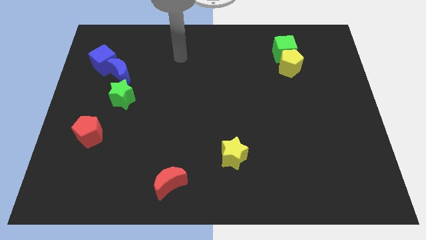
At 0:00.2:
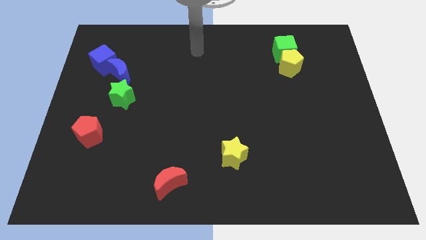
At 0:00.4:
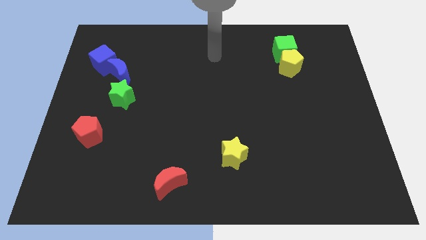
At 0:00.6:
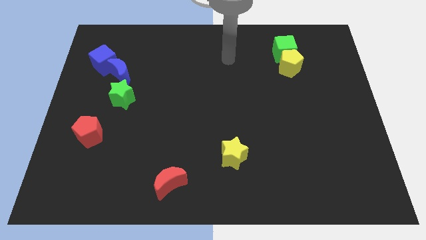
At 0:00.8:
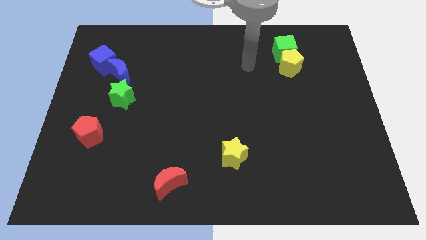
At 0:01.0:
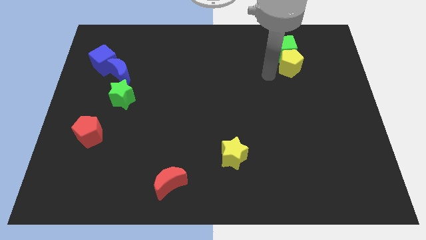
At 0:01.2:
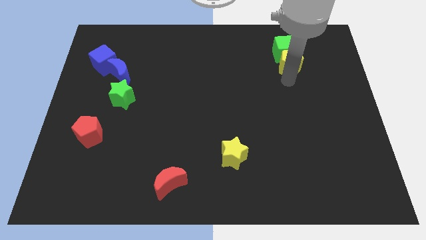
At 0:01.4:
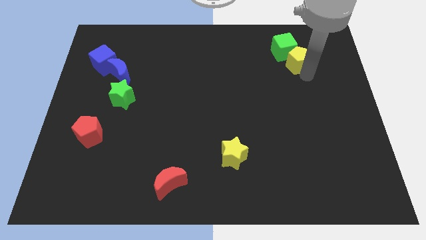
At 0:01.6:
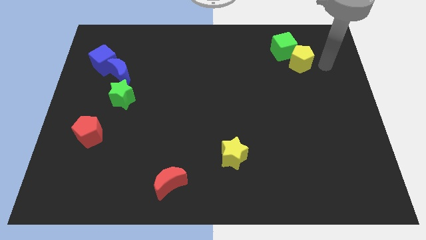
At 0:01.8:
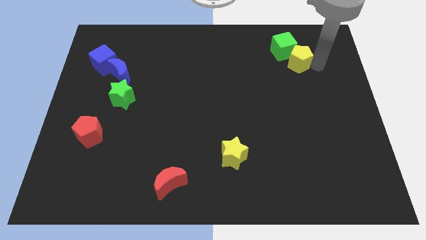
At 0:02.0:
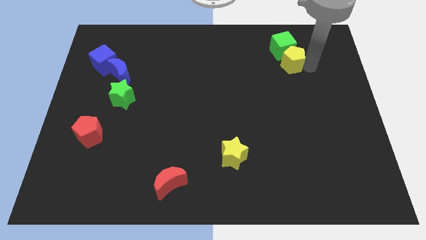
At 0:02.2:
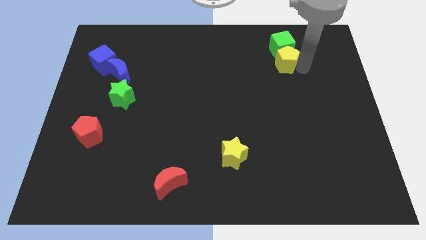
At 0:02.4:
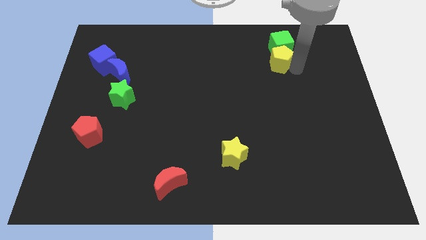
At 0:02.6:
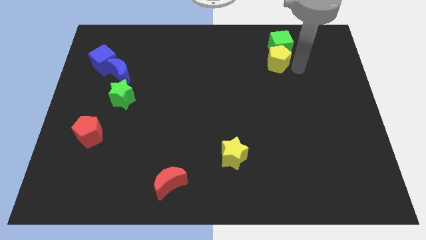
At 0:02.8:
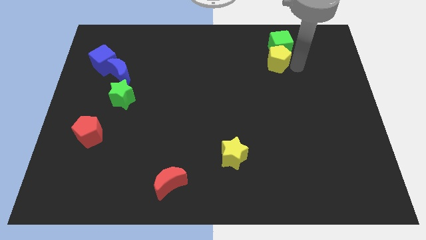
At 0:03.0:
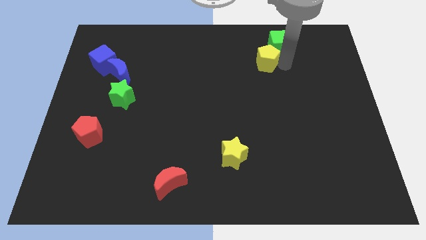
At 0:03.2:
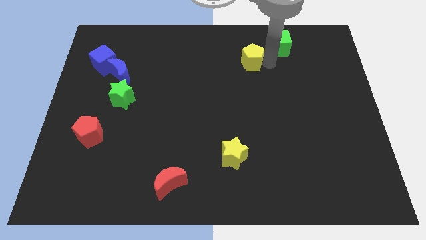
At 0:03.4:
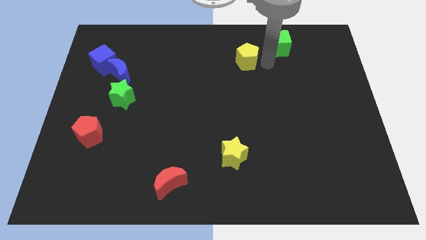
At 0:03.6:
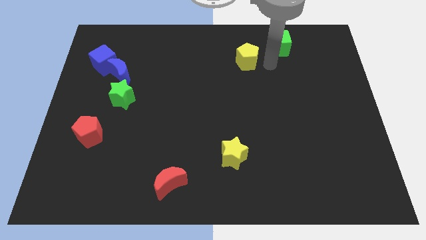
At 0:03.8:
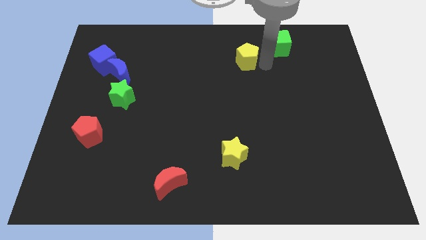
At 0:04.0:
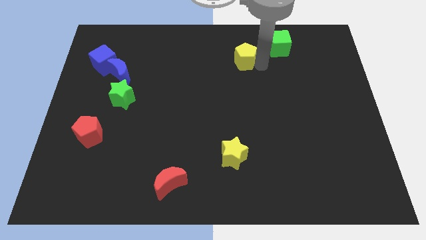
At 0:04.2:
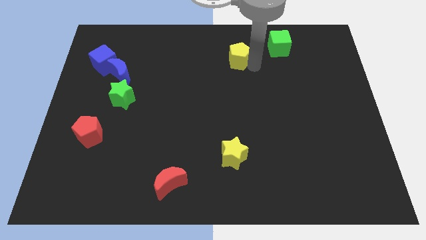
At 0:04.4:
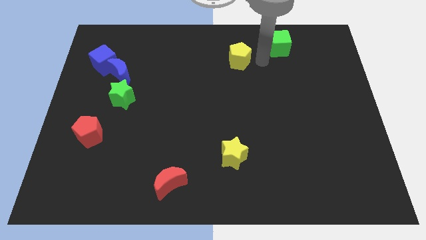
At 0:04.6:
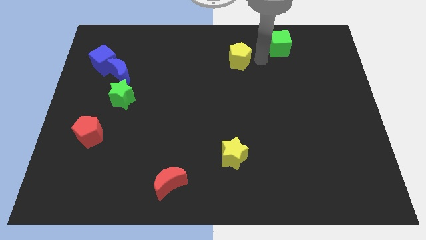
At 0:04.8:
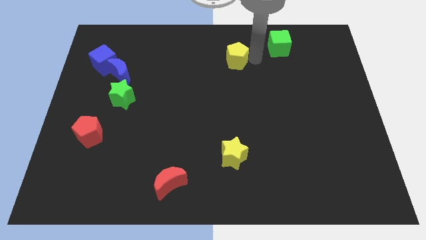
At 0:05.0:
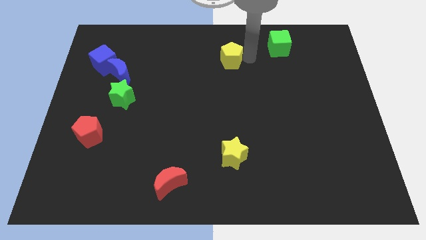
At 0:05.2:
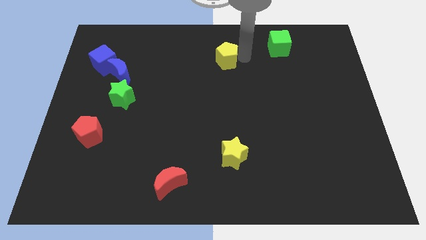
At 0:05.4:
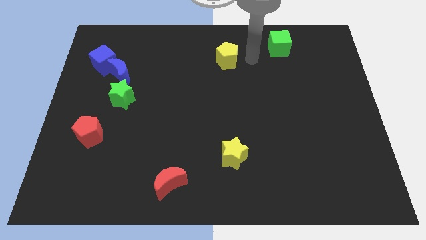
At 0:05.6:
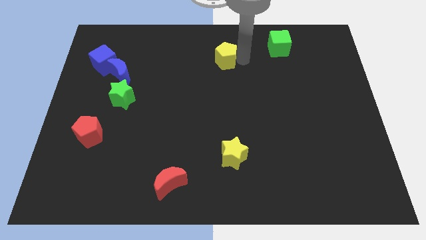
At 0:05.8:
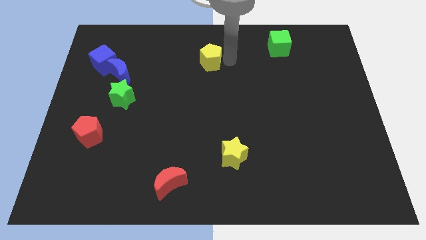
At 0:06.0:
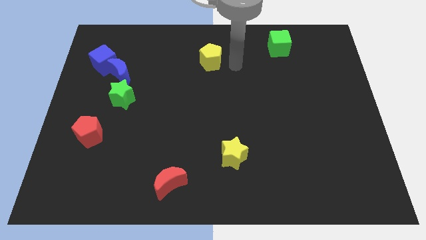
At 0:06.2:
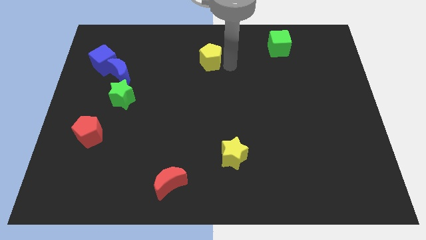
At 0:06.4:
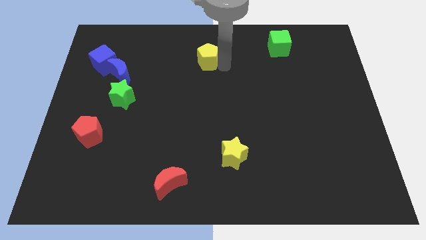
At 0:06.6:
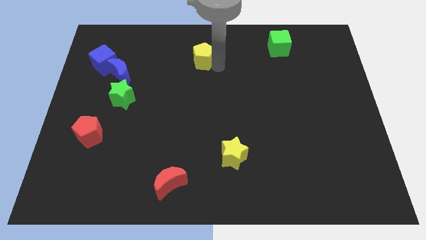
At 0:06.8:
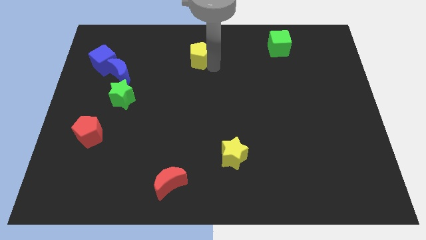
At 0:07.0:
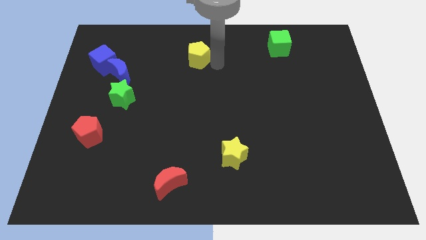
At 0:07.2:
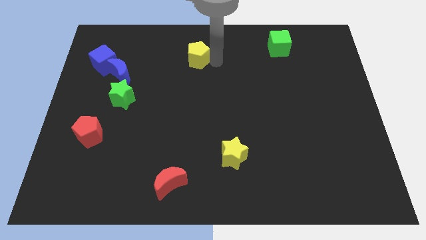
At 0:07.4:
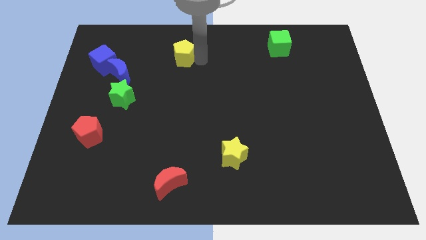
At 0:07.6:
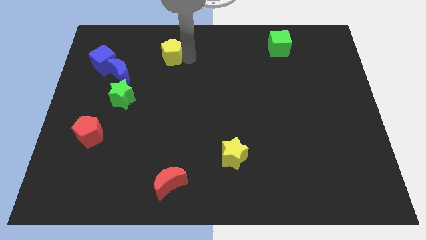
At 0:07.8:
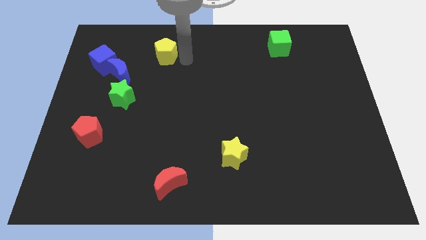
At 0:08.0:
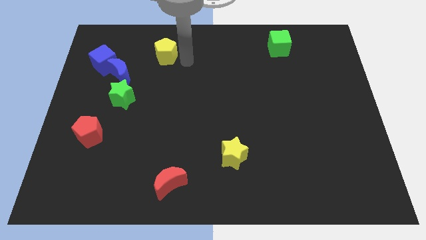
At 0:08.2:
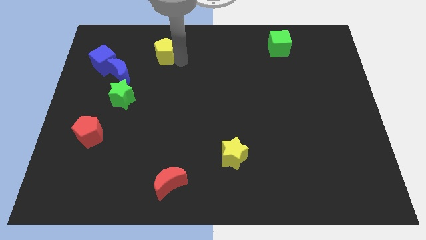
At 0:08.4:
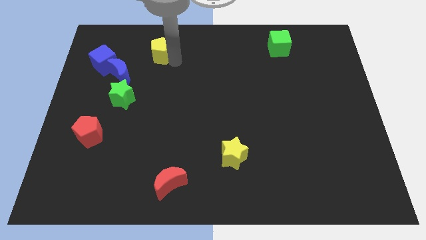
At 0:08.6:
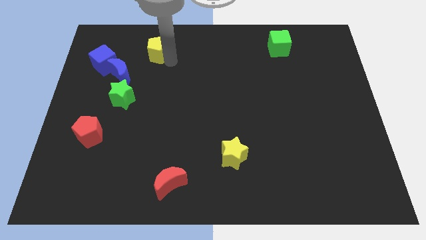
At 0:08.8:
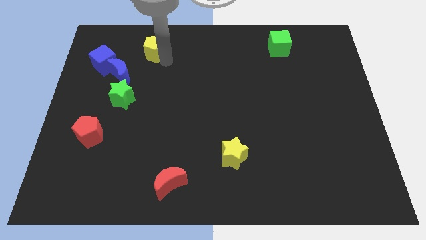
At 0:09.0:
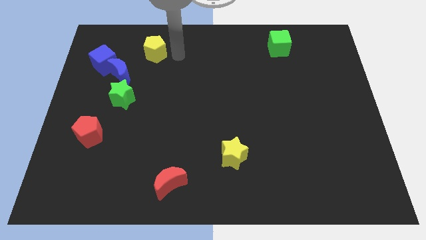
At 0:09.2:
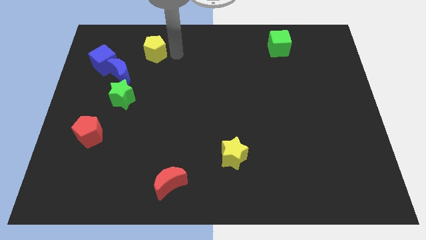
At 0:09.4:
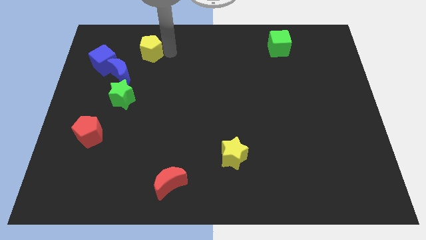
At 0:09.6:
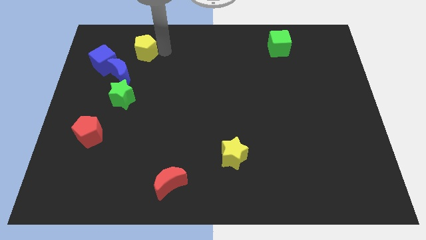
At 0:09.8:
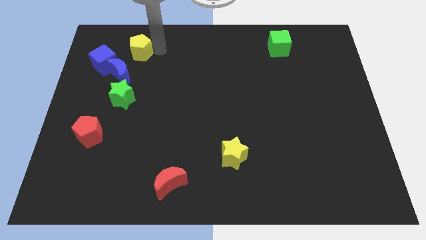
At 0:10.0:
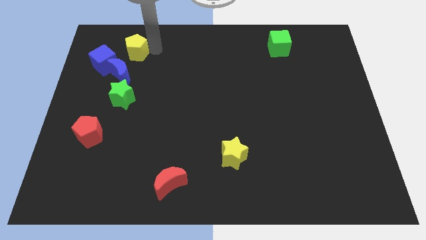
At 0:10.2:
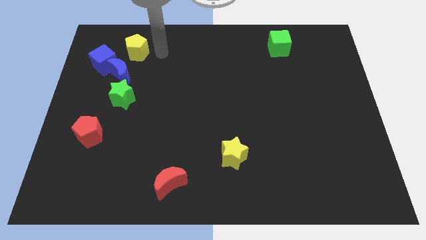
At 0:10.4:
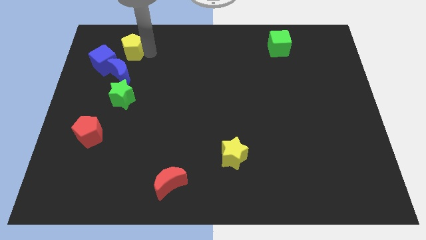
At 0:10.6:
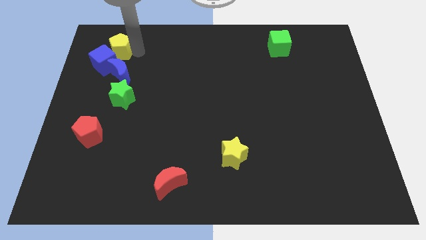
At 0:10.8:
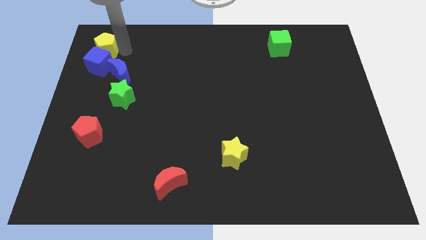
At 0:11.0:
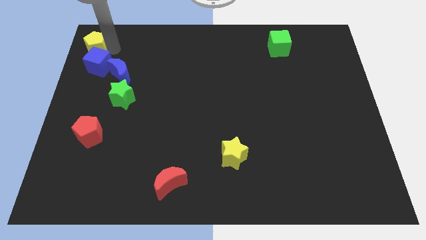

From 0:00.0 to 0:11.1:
slide the yellow pentagon to the top left corner
